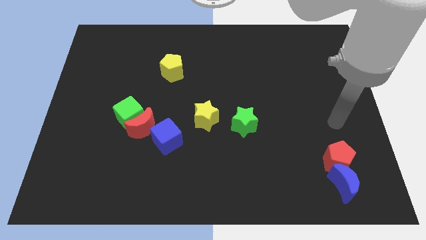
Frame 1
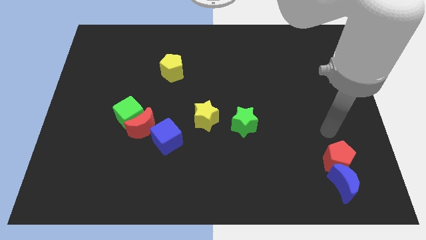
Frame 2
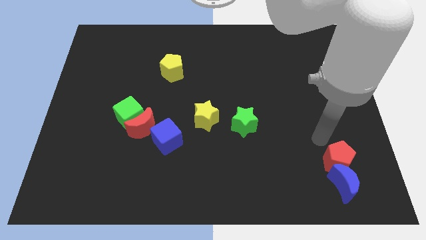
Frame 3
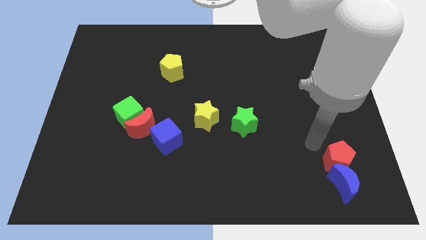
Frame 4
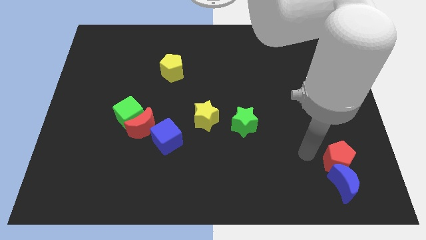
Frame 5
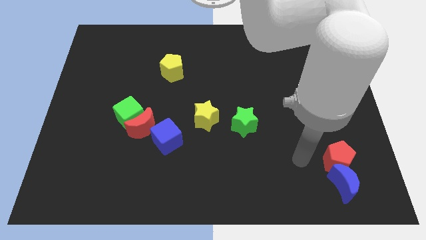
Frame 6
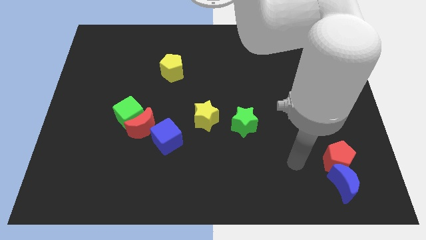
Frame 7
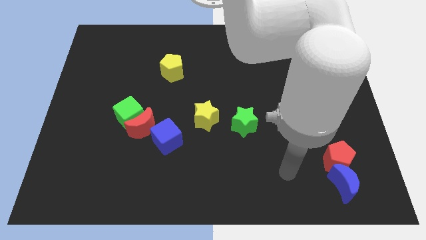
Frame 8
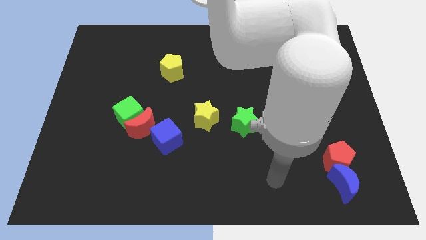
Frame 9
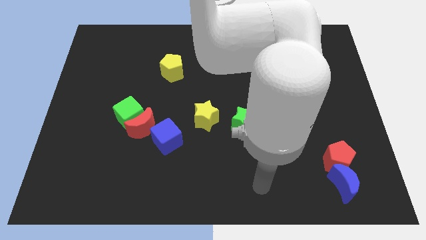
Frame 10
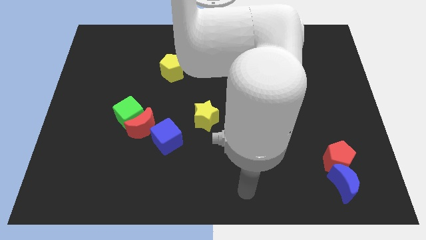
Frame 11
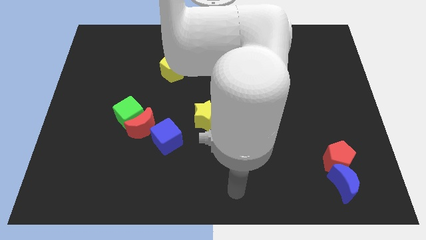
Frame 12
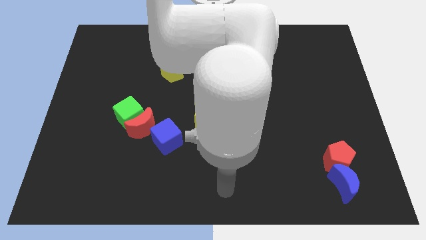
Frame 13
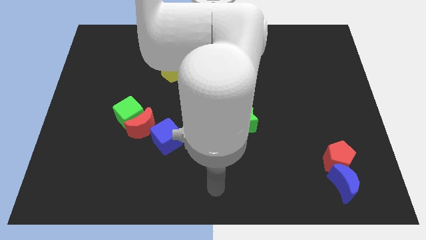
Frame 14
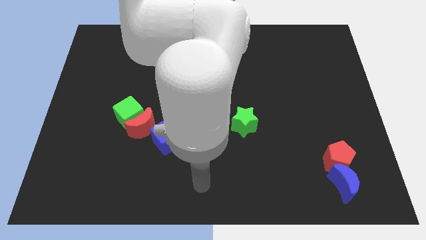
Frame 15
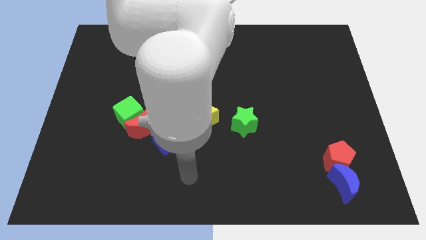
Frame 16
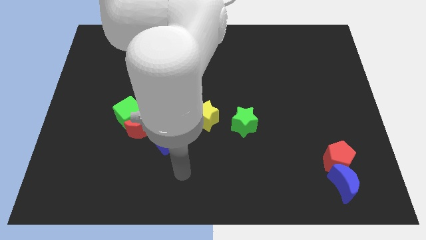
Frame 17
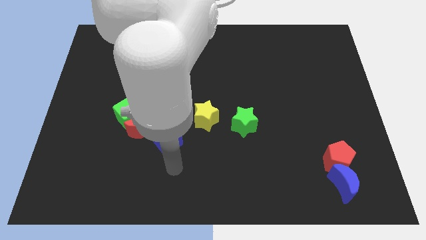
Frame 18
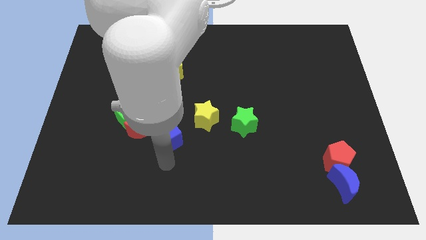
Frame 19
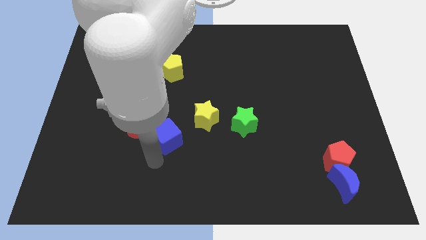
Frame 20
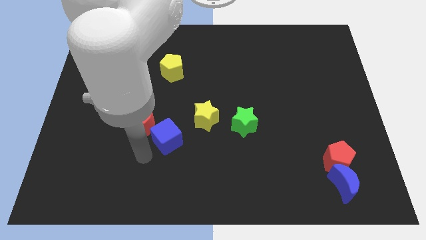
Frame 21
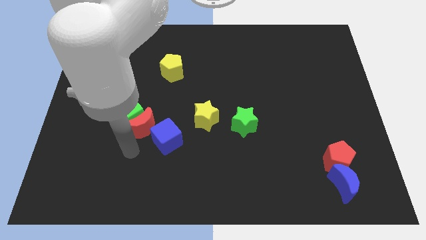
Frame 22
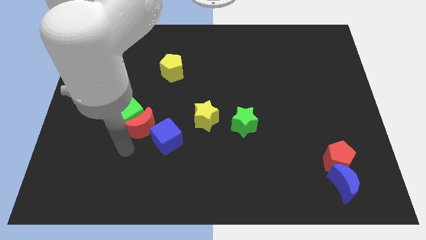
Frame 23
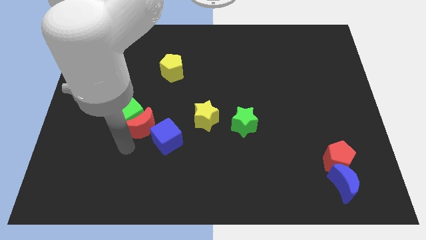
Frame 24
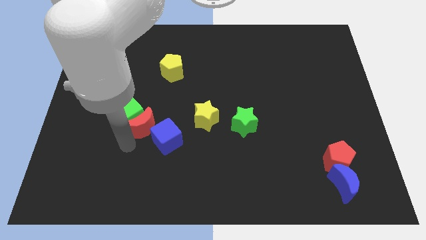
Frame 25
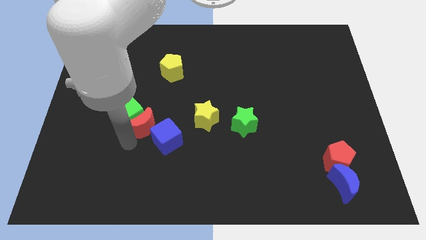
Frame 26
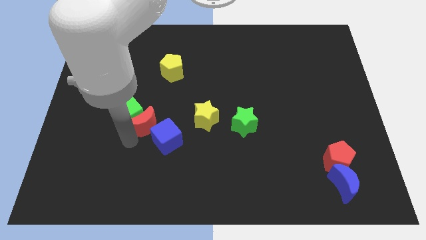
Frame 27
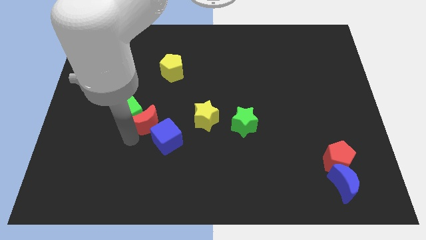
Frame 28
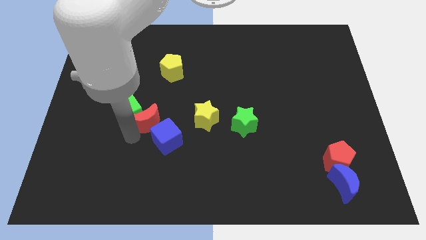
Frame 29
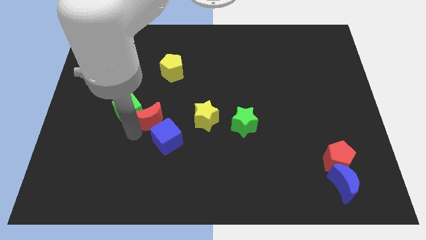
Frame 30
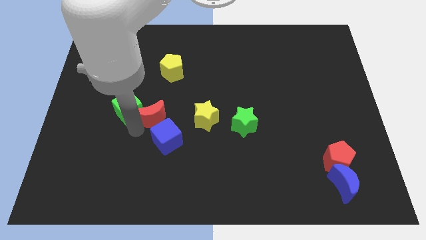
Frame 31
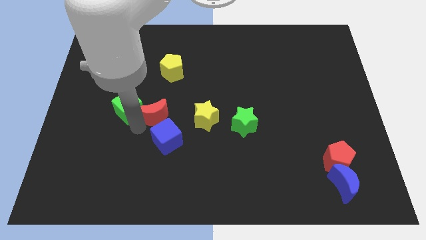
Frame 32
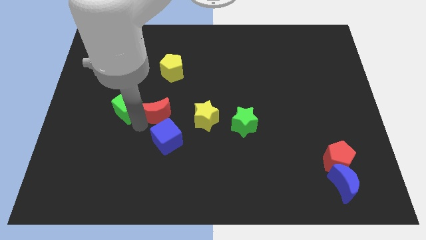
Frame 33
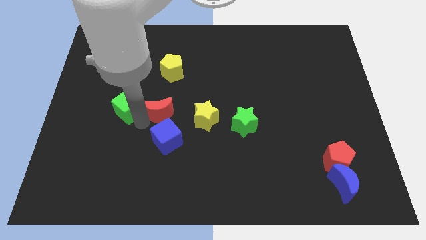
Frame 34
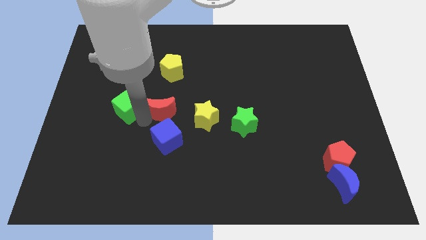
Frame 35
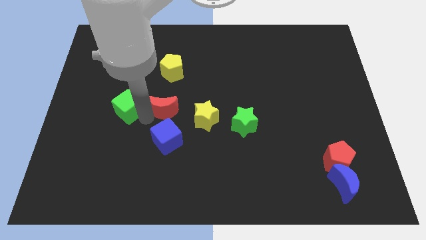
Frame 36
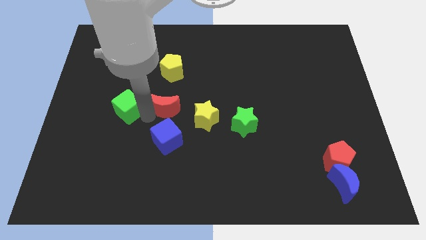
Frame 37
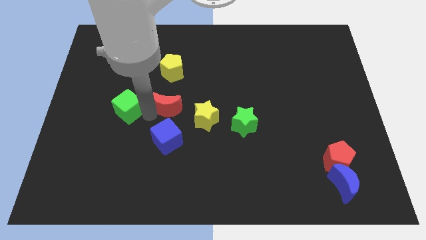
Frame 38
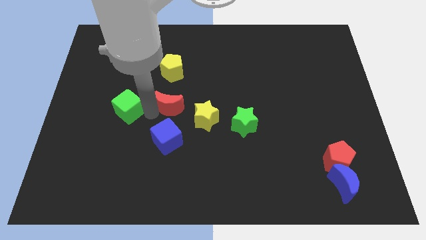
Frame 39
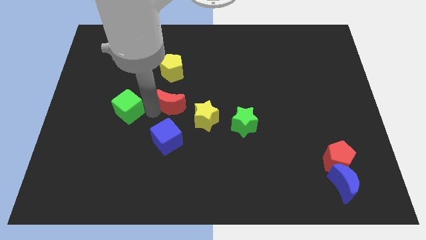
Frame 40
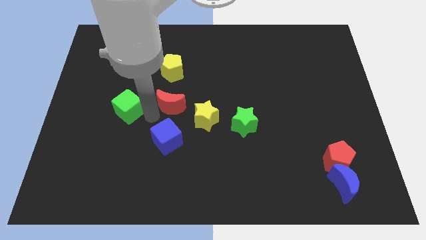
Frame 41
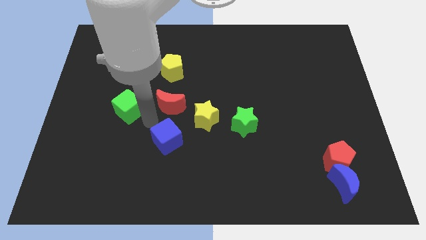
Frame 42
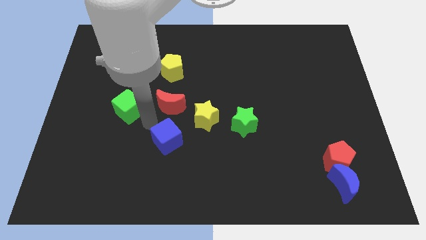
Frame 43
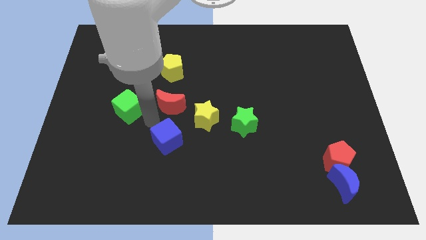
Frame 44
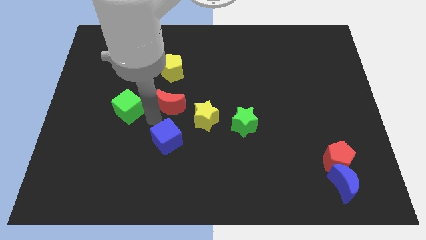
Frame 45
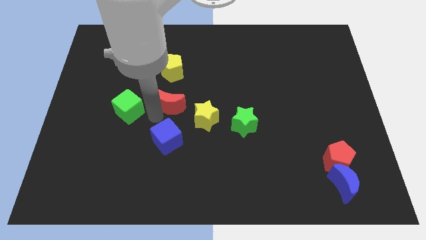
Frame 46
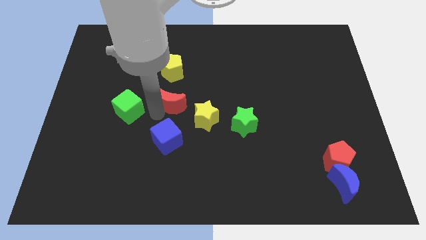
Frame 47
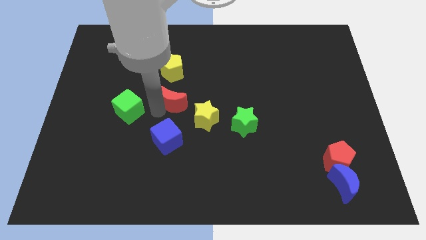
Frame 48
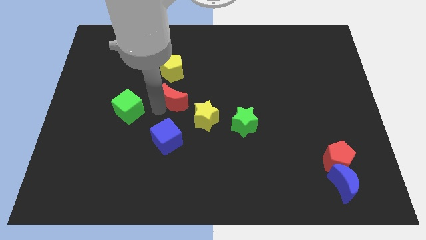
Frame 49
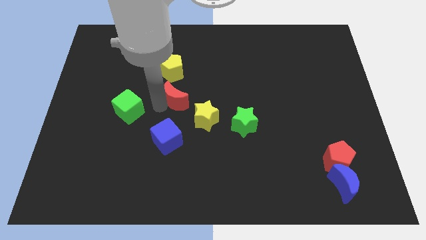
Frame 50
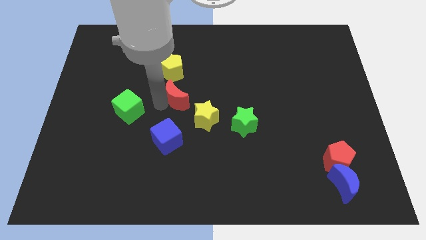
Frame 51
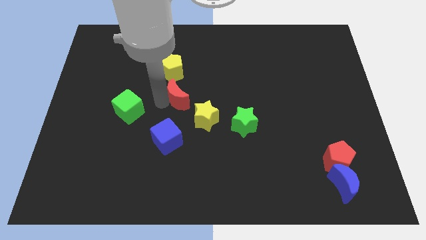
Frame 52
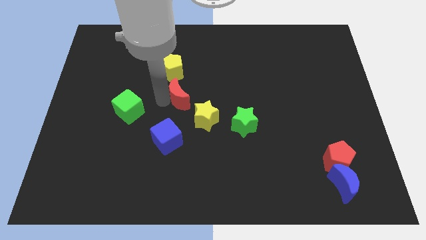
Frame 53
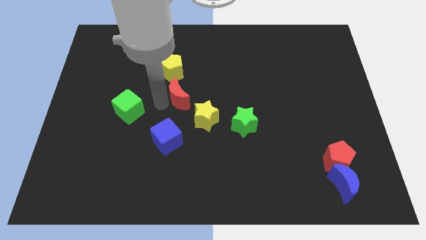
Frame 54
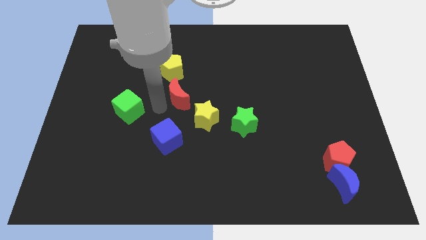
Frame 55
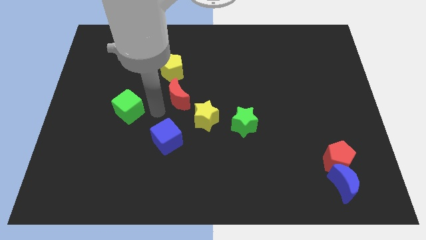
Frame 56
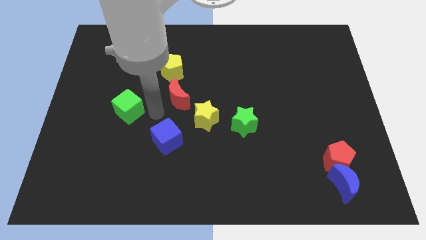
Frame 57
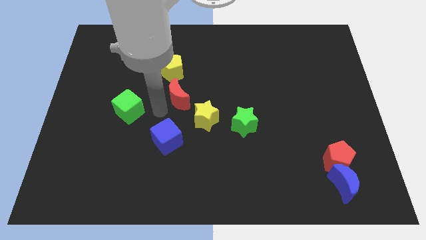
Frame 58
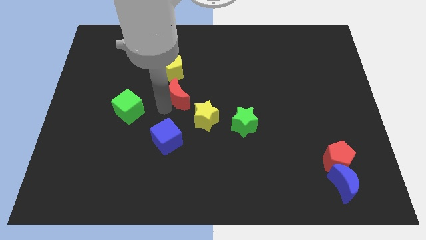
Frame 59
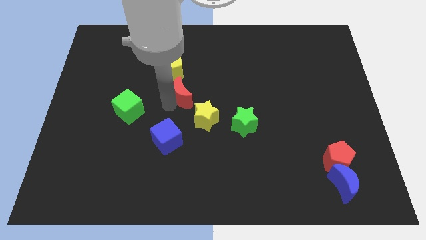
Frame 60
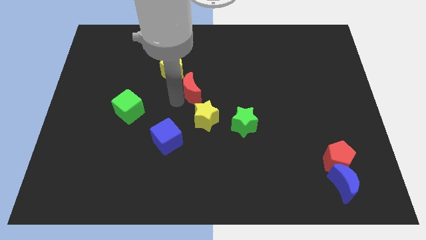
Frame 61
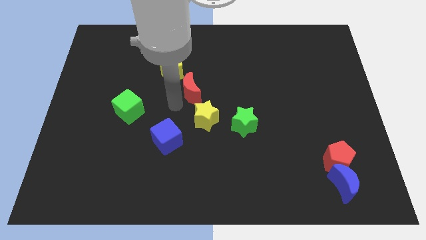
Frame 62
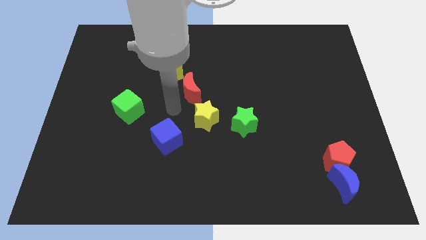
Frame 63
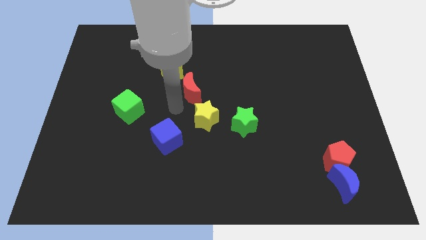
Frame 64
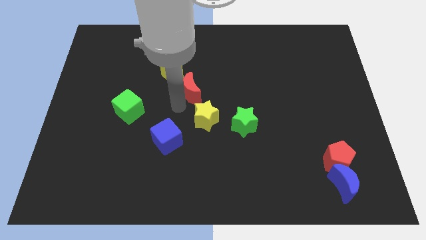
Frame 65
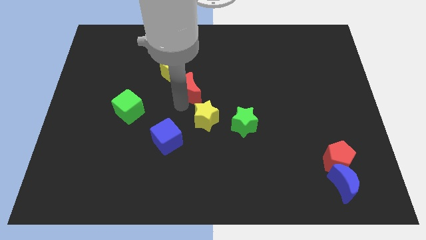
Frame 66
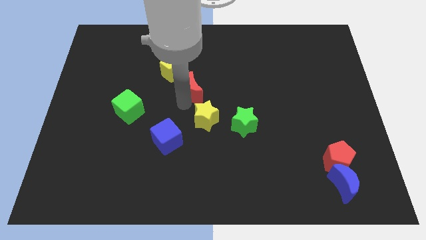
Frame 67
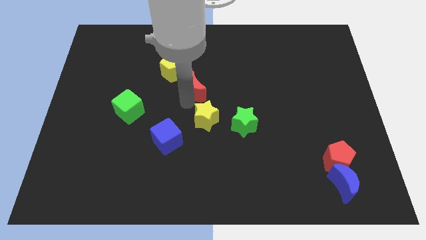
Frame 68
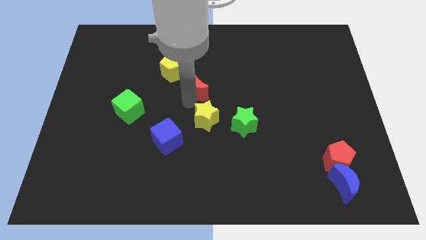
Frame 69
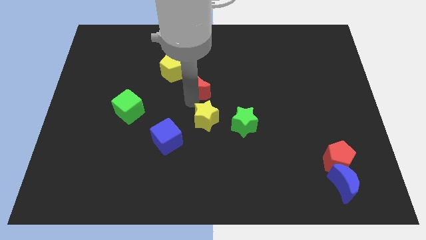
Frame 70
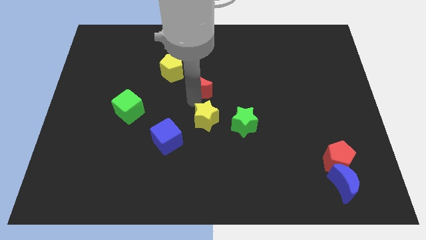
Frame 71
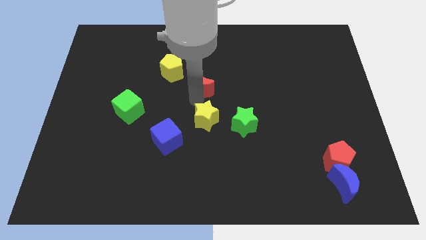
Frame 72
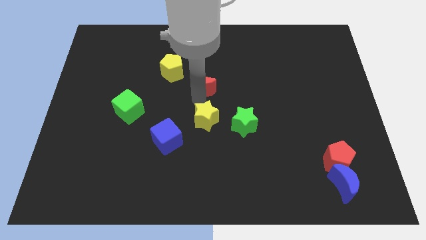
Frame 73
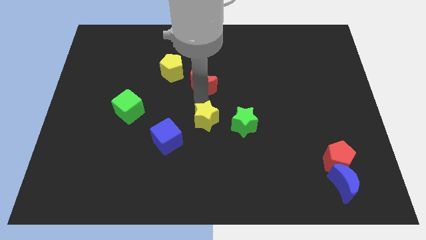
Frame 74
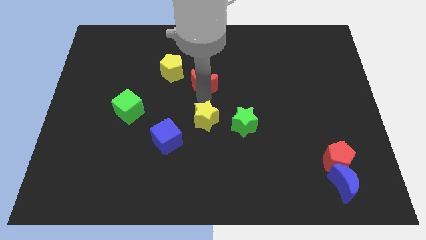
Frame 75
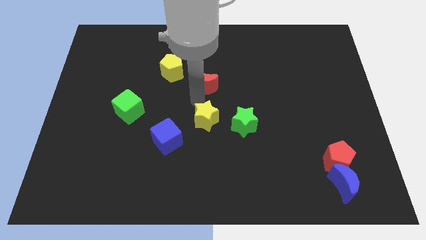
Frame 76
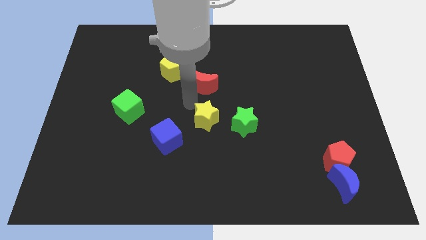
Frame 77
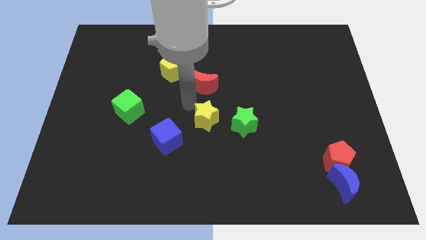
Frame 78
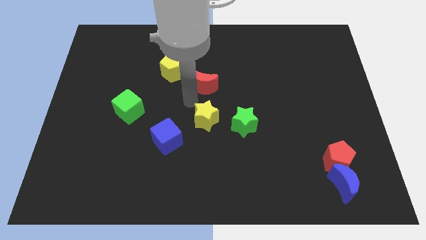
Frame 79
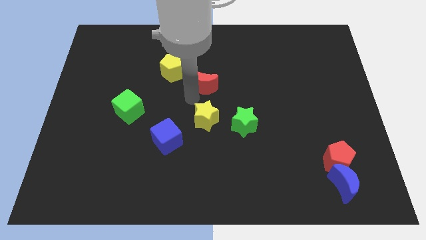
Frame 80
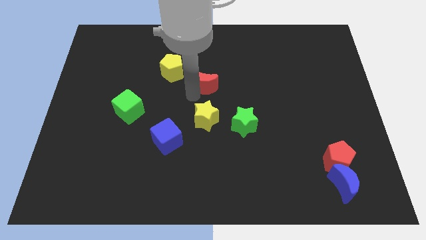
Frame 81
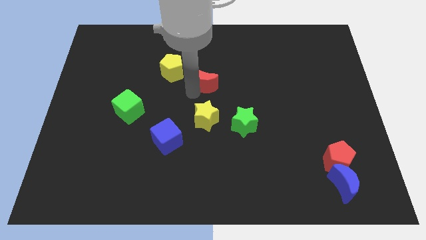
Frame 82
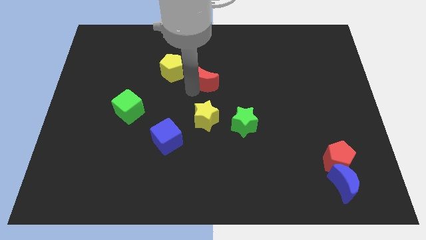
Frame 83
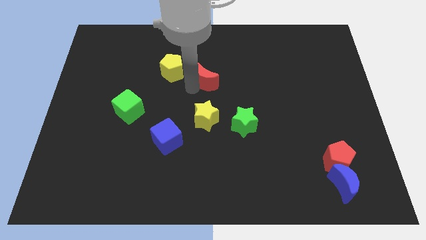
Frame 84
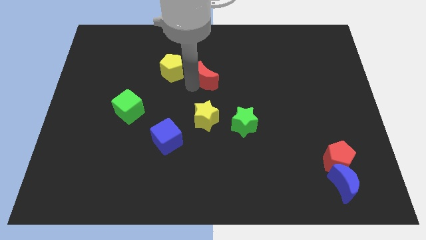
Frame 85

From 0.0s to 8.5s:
move the red moon up and to the right diagonally
